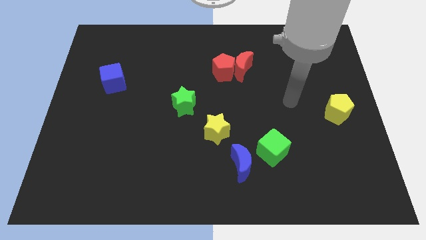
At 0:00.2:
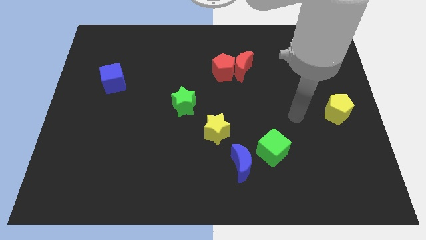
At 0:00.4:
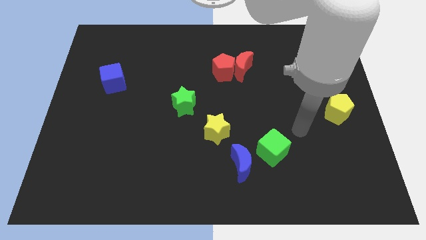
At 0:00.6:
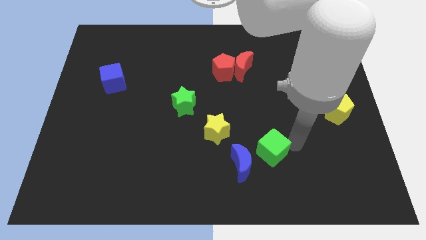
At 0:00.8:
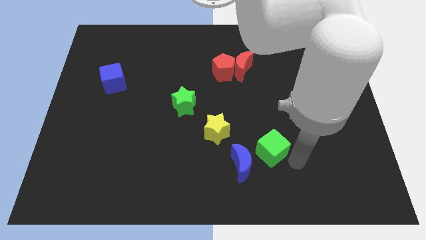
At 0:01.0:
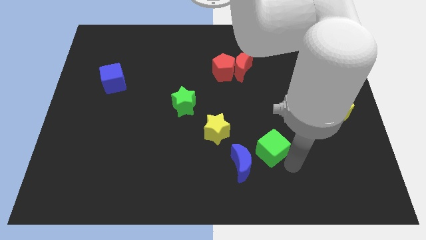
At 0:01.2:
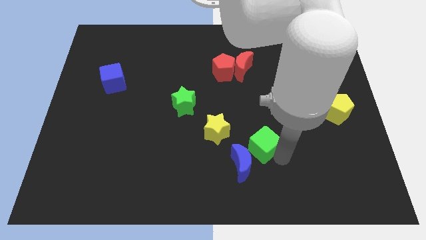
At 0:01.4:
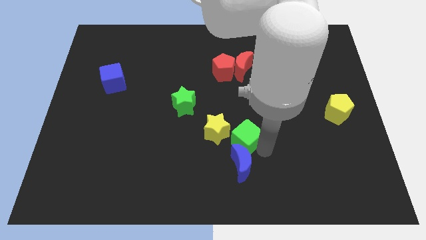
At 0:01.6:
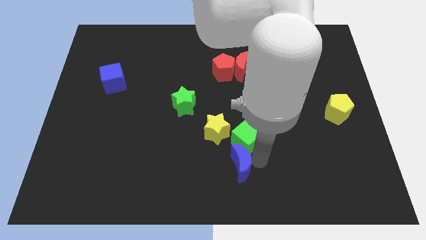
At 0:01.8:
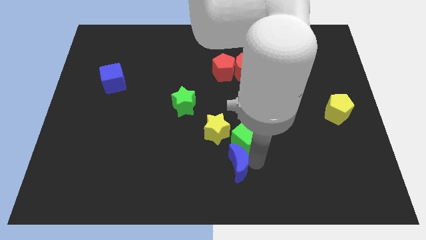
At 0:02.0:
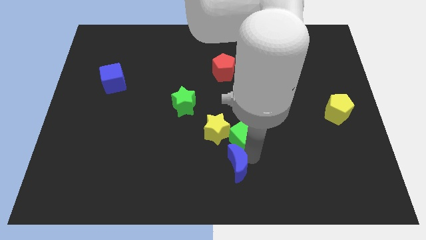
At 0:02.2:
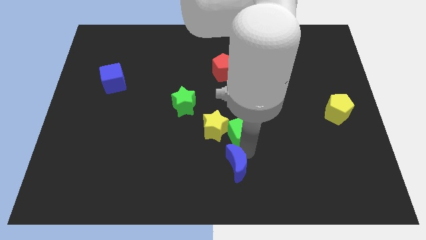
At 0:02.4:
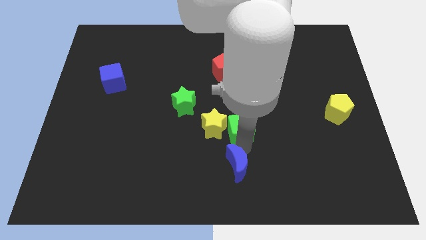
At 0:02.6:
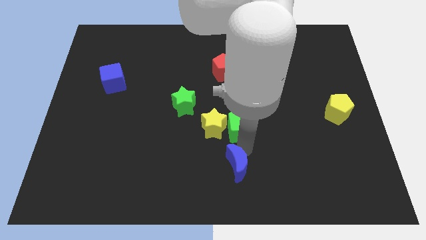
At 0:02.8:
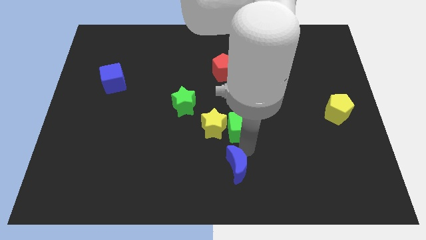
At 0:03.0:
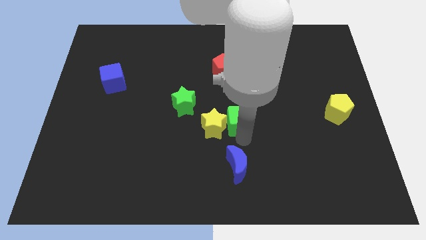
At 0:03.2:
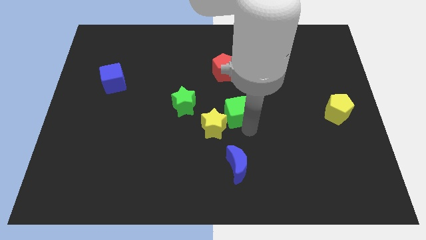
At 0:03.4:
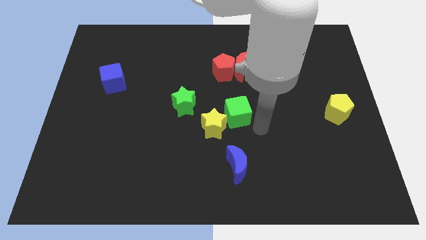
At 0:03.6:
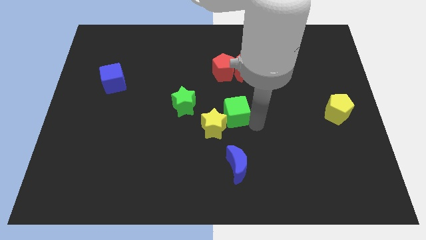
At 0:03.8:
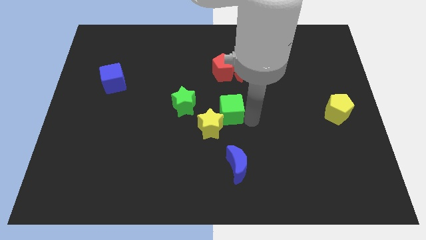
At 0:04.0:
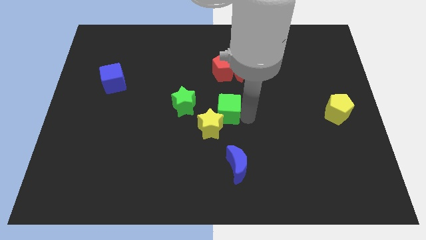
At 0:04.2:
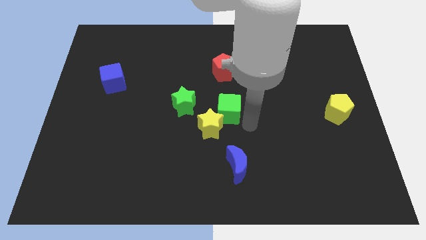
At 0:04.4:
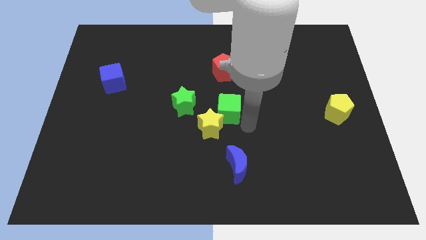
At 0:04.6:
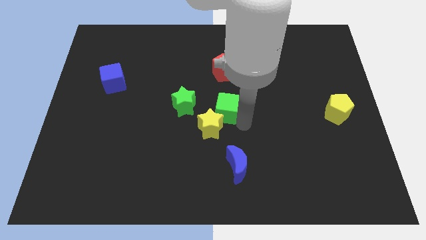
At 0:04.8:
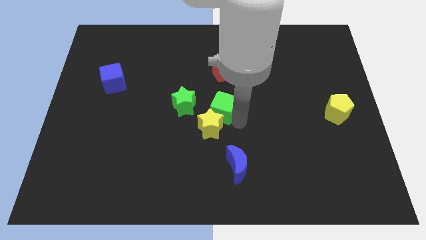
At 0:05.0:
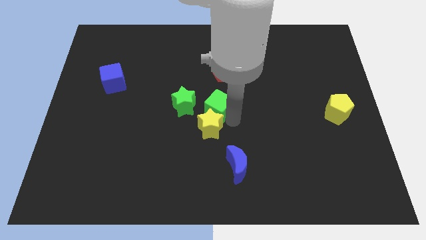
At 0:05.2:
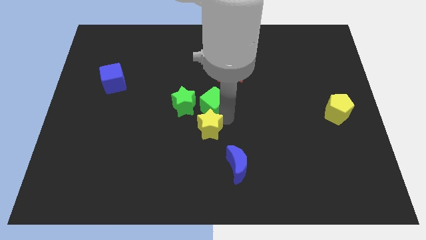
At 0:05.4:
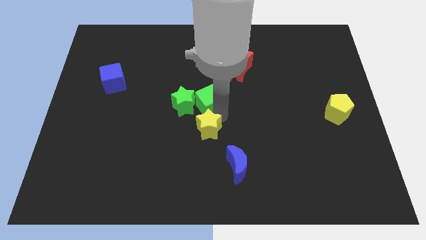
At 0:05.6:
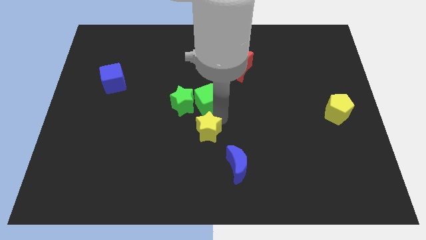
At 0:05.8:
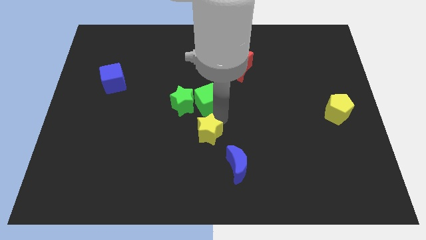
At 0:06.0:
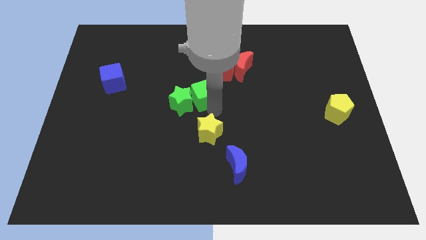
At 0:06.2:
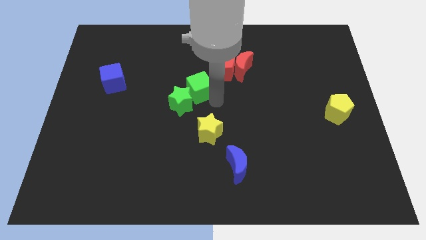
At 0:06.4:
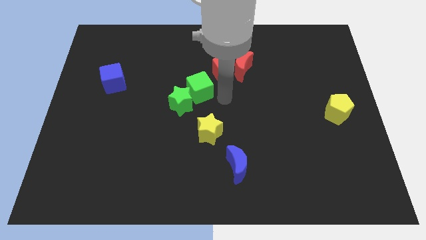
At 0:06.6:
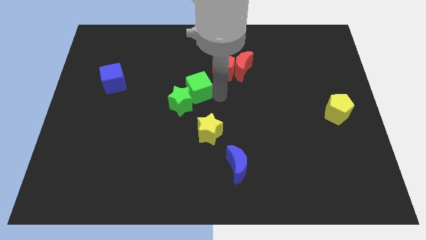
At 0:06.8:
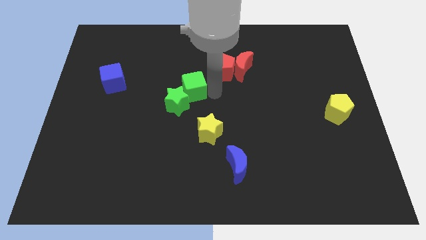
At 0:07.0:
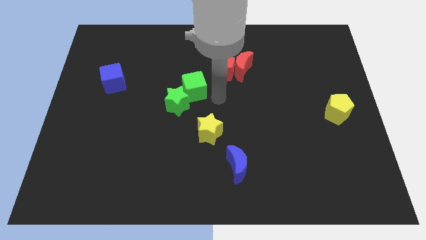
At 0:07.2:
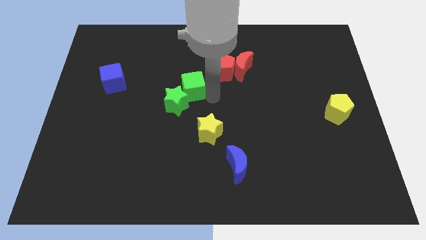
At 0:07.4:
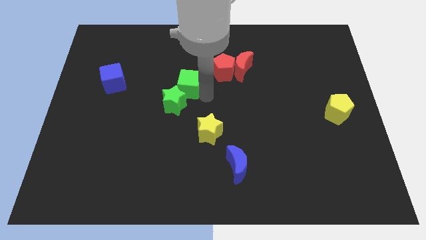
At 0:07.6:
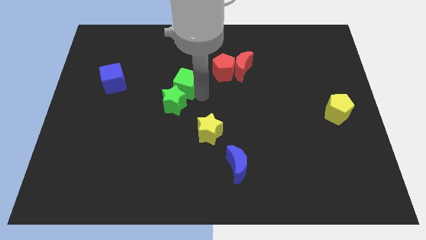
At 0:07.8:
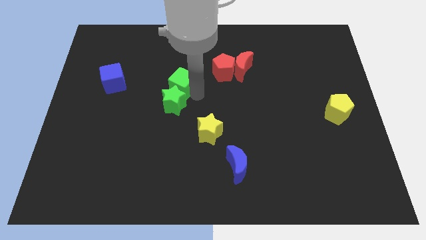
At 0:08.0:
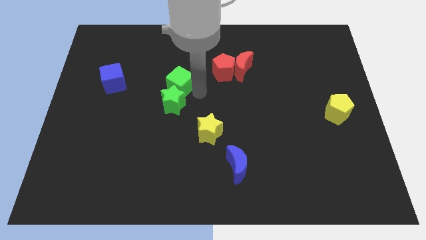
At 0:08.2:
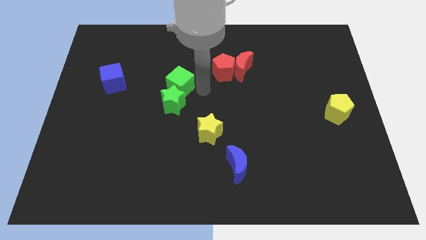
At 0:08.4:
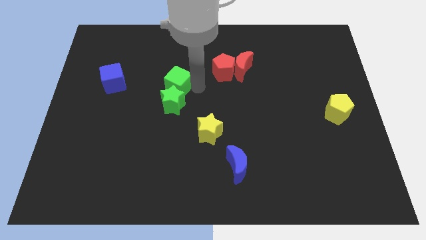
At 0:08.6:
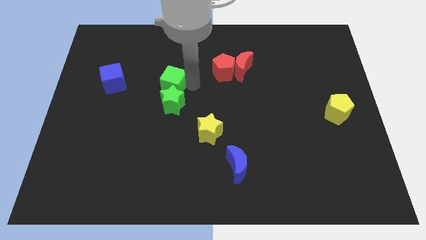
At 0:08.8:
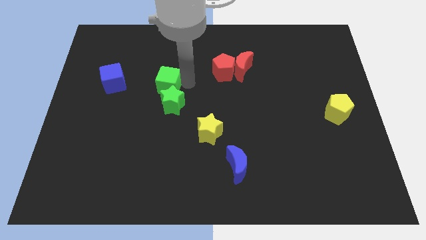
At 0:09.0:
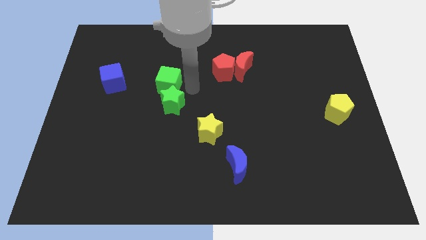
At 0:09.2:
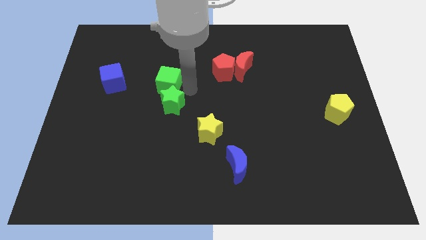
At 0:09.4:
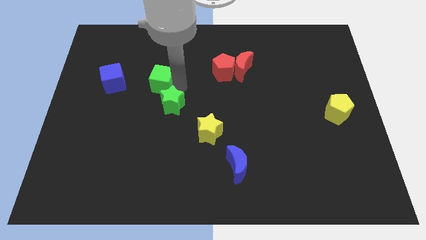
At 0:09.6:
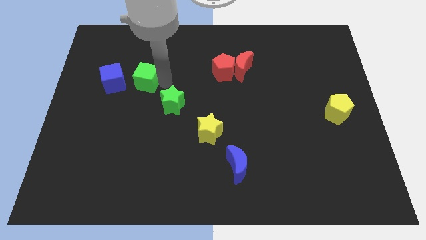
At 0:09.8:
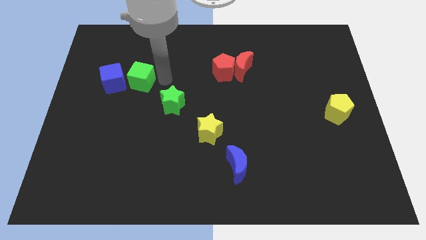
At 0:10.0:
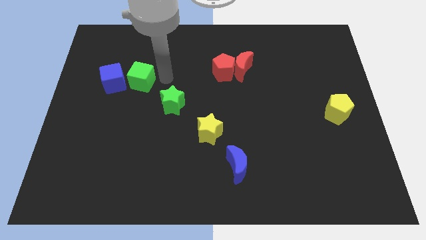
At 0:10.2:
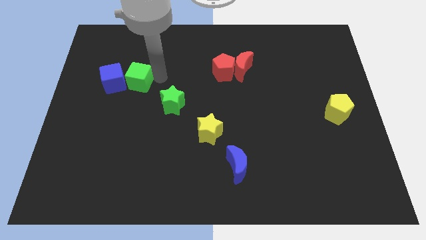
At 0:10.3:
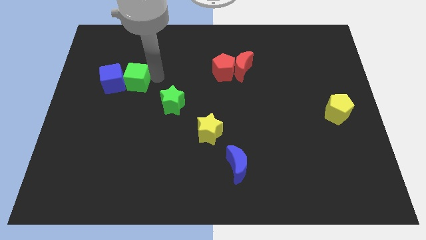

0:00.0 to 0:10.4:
put the green cube next to the blue cube

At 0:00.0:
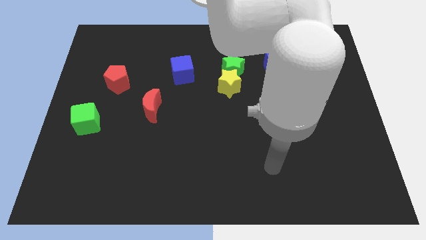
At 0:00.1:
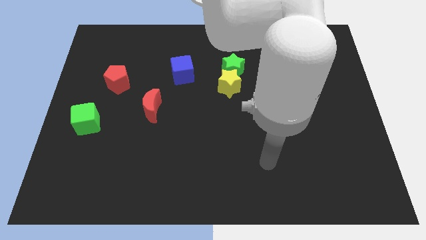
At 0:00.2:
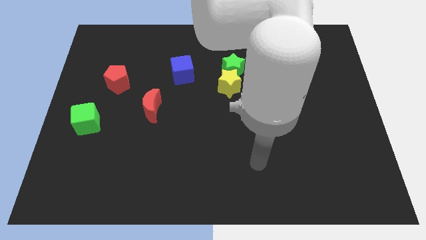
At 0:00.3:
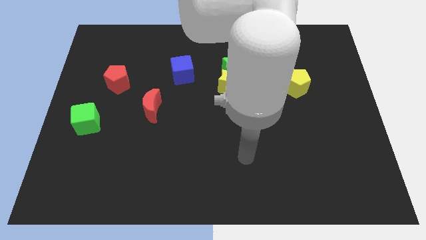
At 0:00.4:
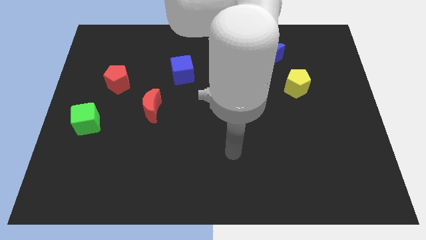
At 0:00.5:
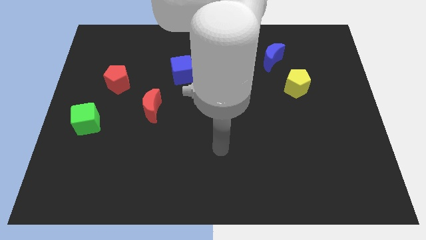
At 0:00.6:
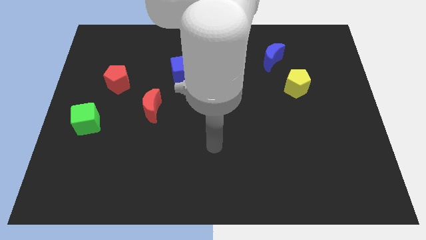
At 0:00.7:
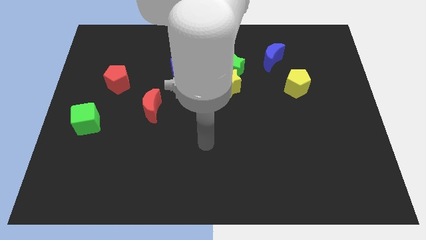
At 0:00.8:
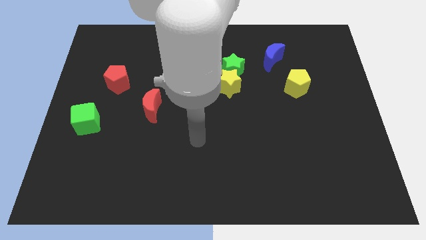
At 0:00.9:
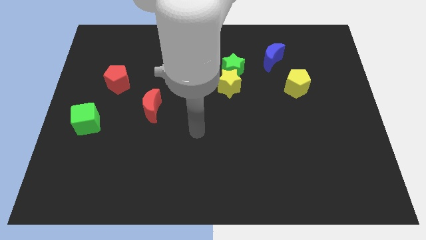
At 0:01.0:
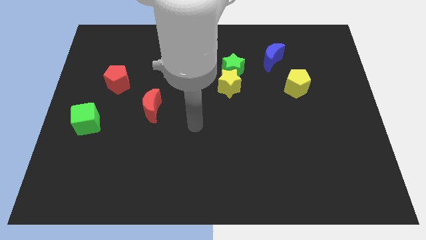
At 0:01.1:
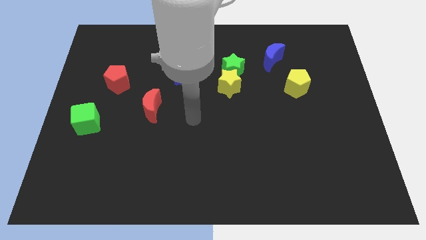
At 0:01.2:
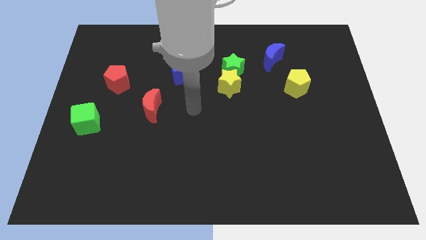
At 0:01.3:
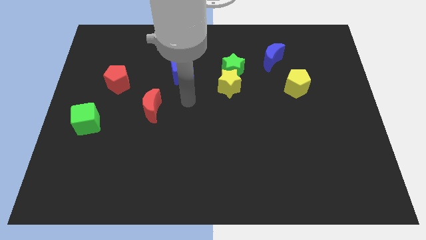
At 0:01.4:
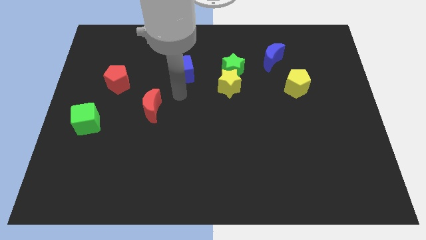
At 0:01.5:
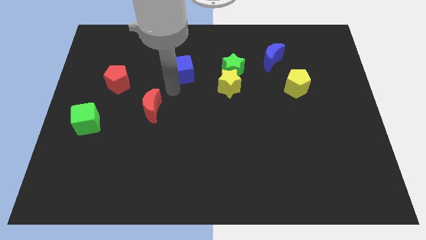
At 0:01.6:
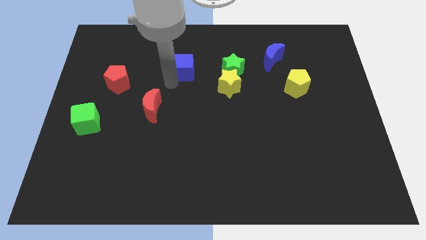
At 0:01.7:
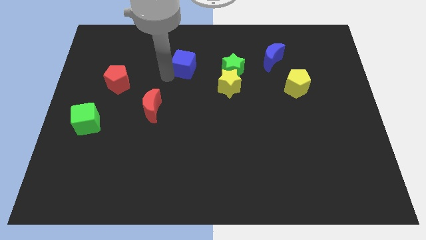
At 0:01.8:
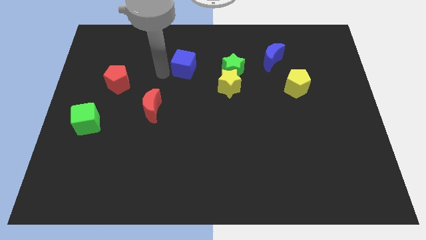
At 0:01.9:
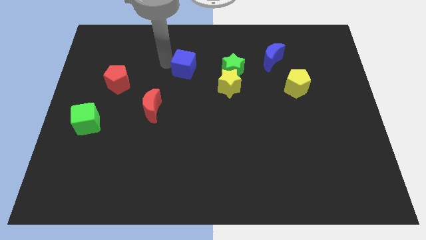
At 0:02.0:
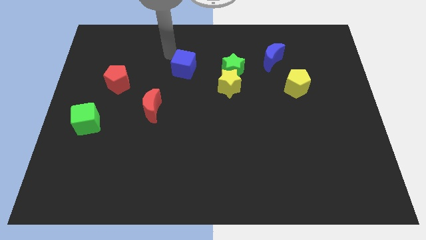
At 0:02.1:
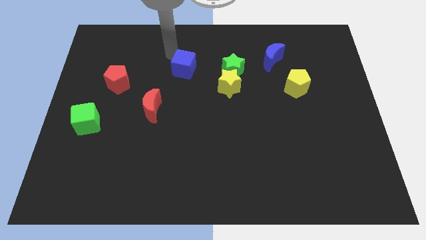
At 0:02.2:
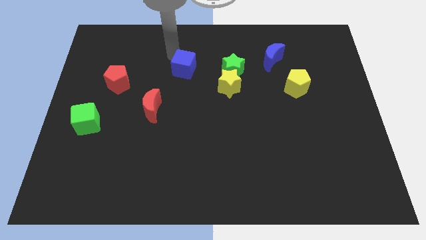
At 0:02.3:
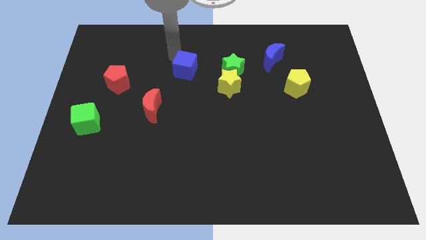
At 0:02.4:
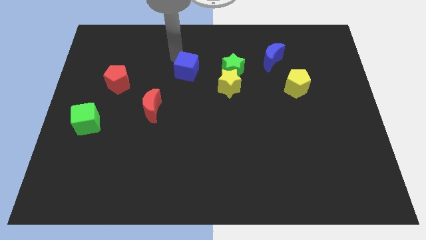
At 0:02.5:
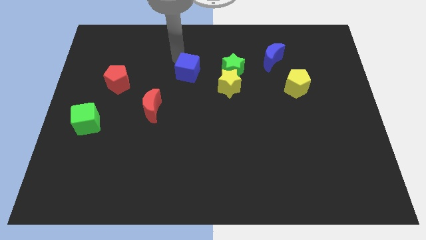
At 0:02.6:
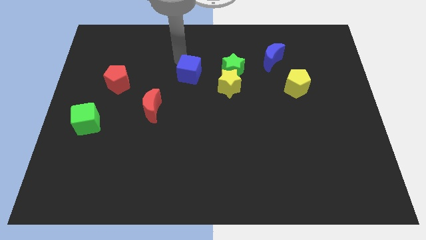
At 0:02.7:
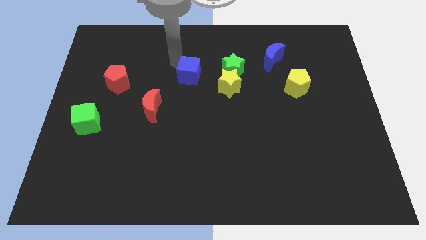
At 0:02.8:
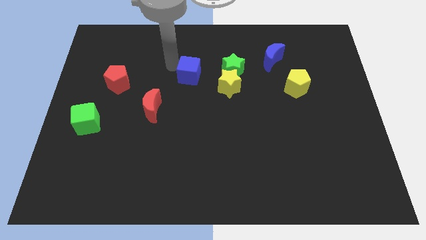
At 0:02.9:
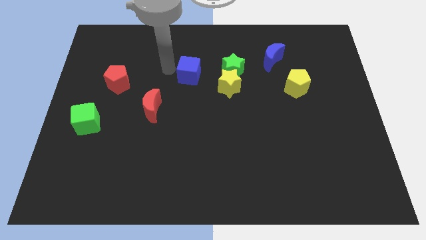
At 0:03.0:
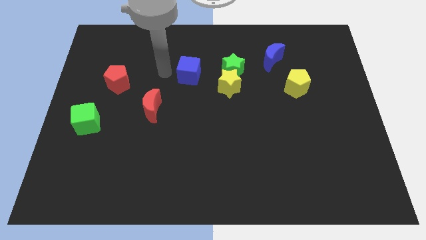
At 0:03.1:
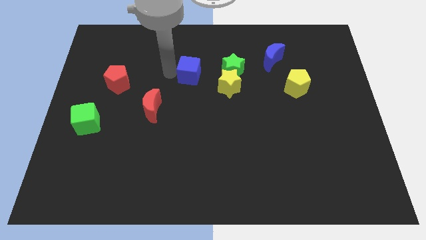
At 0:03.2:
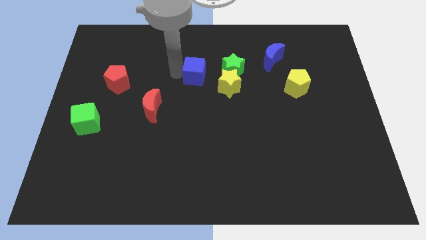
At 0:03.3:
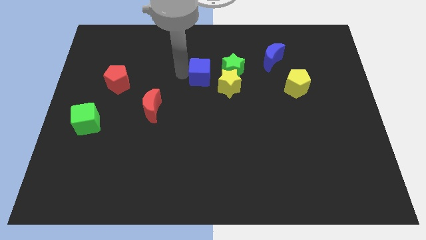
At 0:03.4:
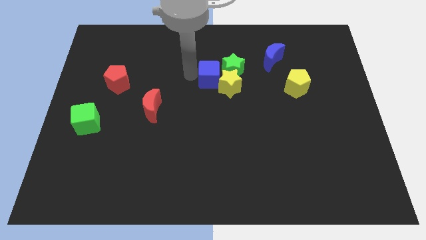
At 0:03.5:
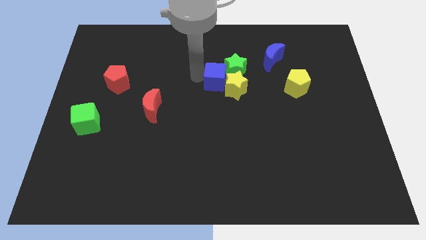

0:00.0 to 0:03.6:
push the blue cube towards the green star
